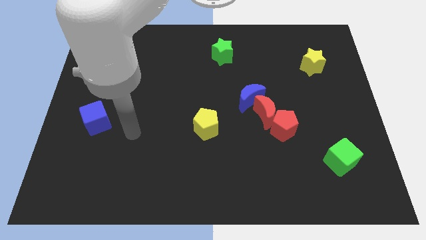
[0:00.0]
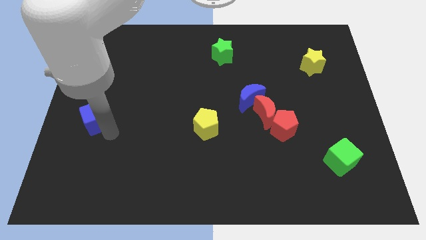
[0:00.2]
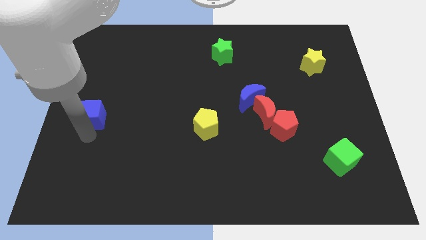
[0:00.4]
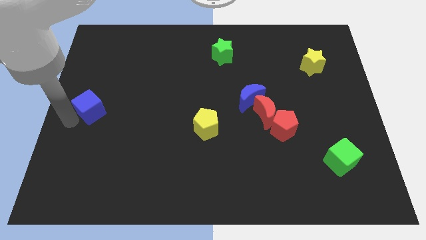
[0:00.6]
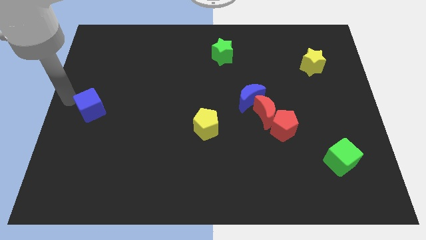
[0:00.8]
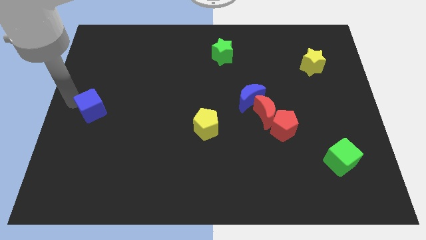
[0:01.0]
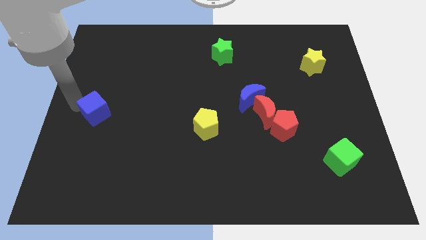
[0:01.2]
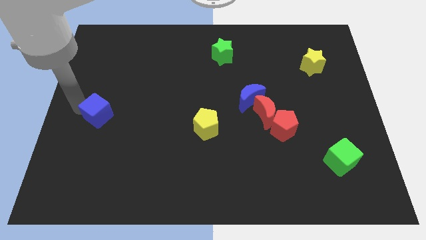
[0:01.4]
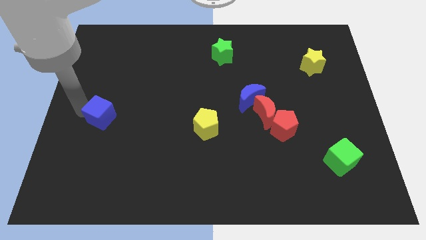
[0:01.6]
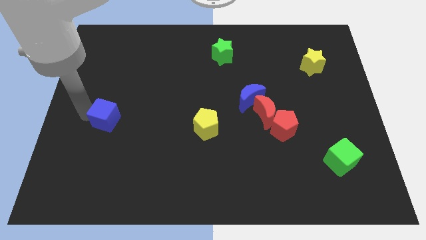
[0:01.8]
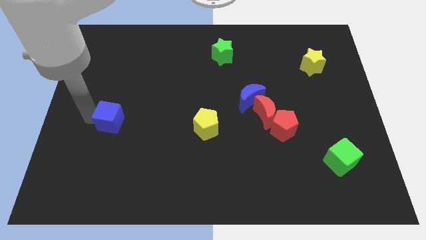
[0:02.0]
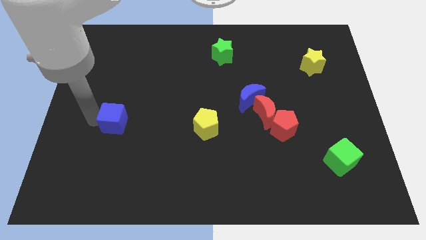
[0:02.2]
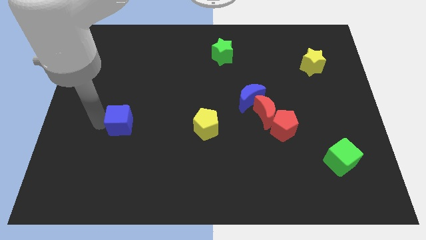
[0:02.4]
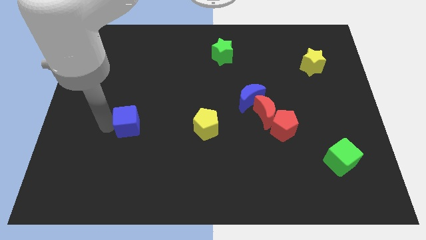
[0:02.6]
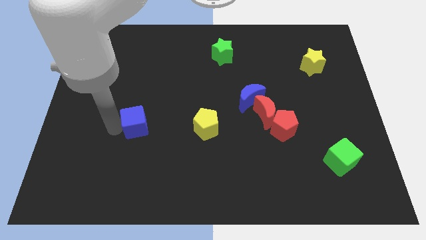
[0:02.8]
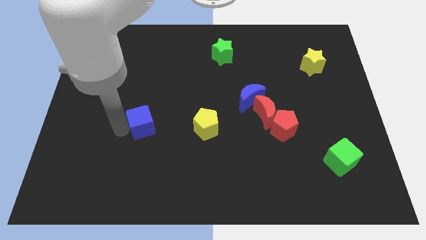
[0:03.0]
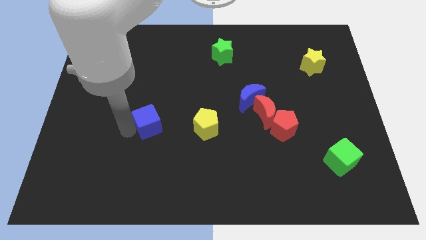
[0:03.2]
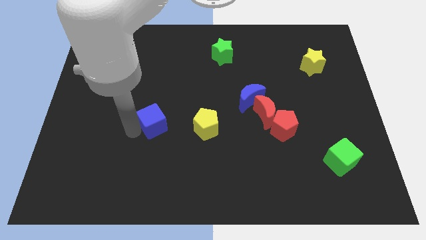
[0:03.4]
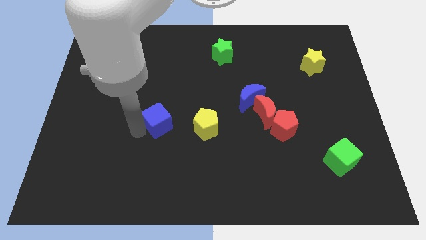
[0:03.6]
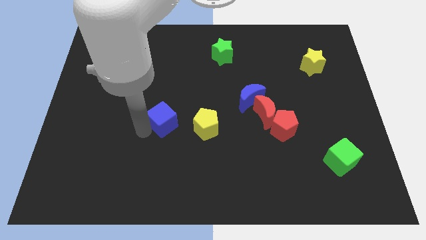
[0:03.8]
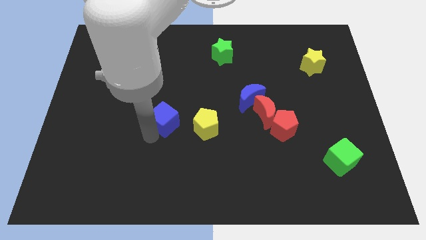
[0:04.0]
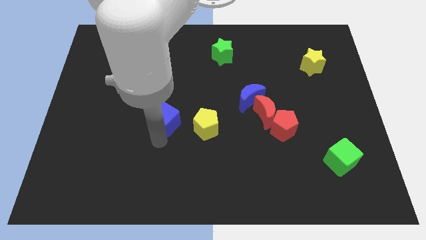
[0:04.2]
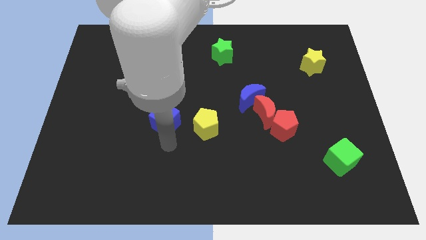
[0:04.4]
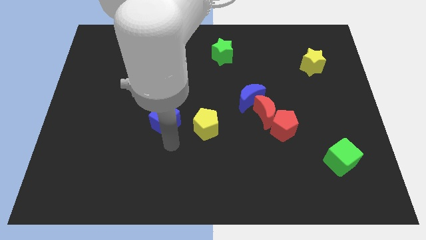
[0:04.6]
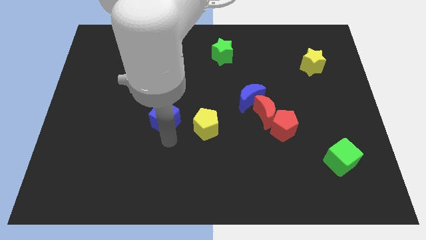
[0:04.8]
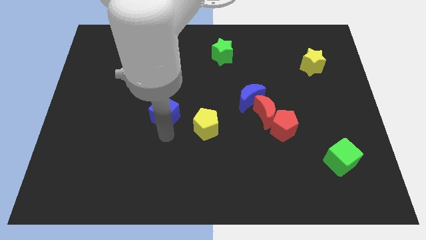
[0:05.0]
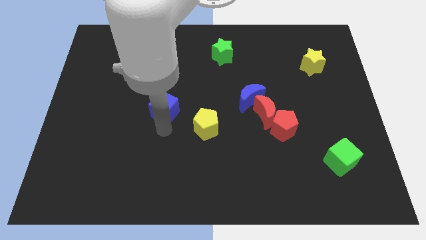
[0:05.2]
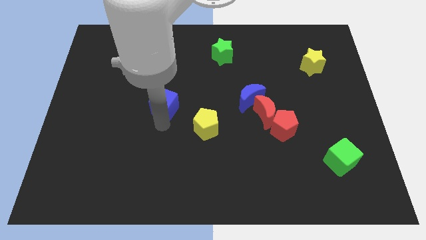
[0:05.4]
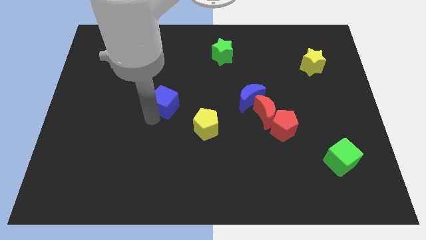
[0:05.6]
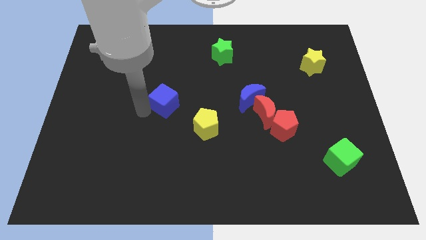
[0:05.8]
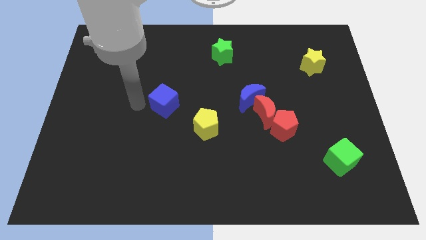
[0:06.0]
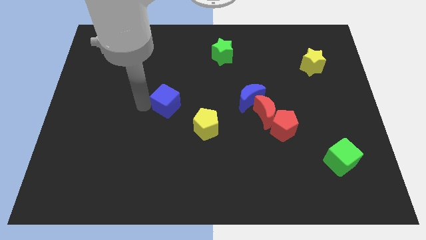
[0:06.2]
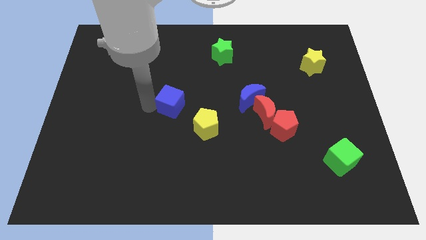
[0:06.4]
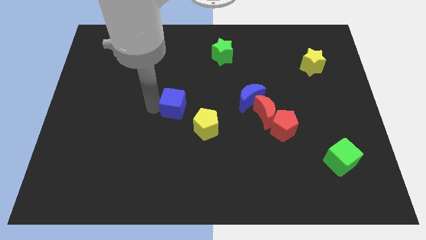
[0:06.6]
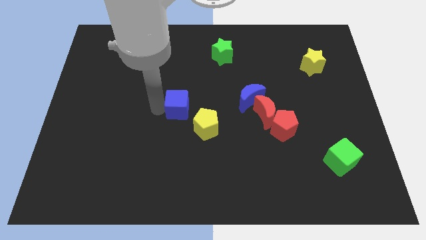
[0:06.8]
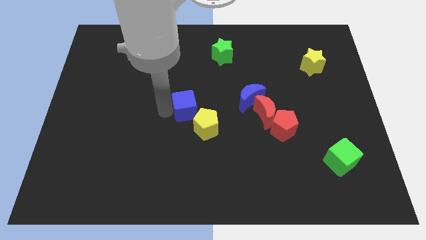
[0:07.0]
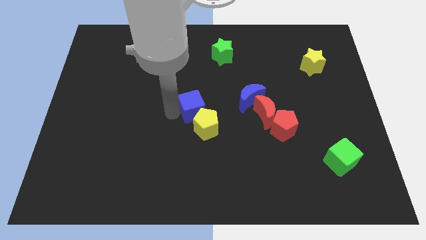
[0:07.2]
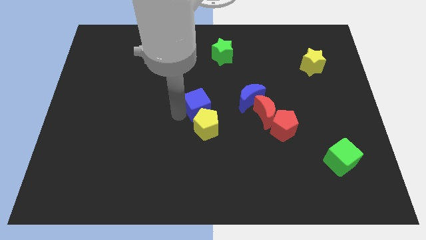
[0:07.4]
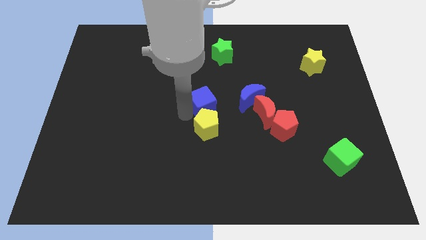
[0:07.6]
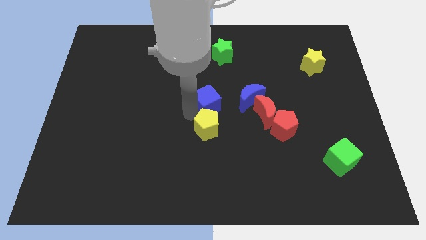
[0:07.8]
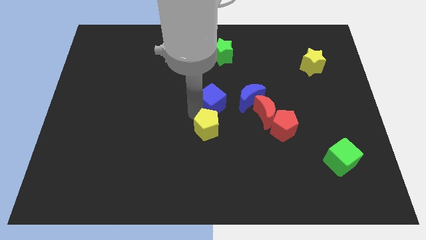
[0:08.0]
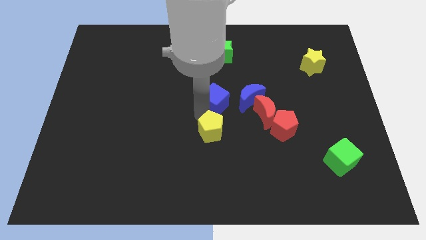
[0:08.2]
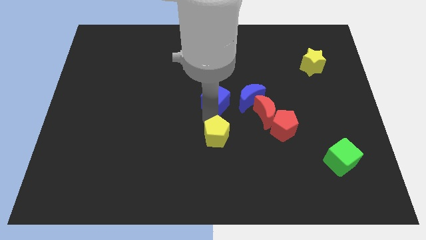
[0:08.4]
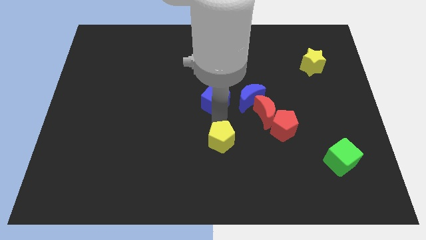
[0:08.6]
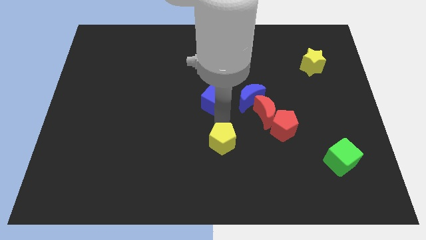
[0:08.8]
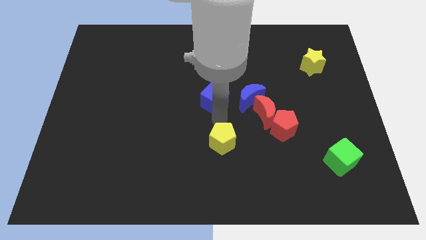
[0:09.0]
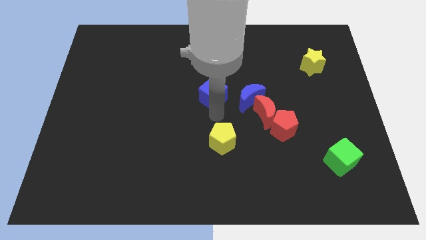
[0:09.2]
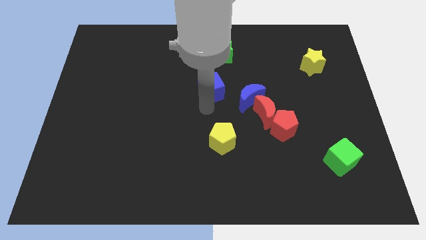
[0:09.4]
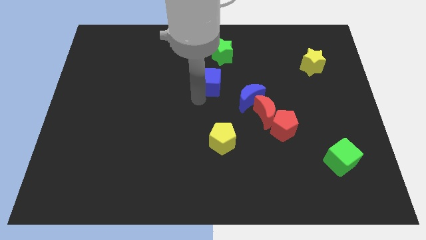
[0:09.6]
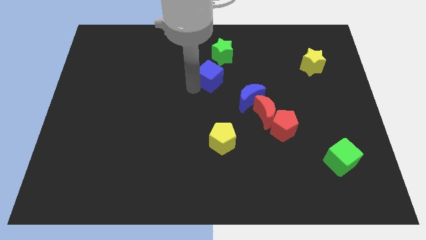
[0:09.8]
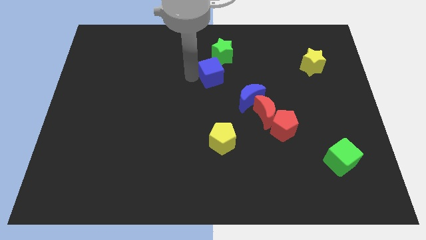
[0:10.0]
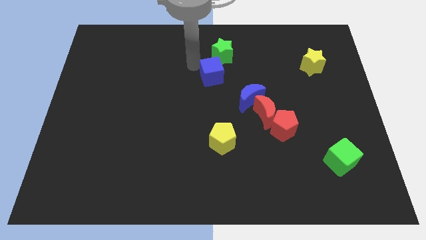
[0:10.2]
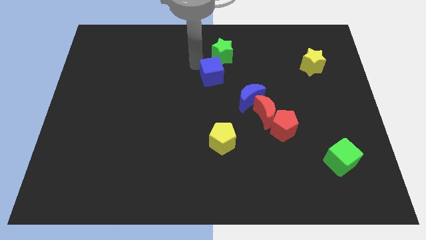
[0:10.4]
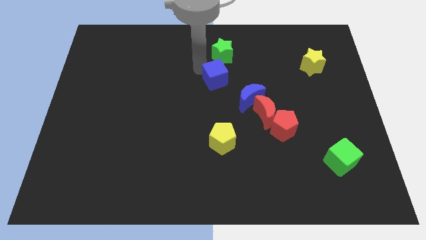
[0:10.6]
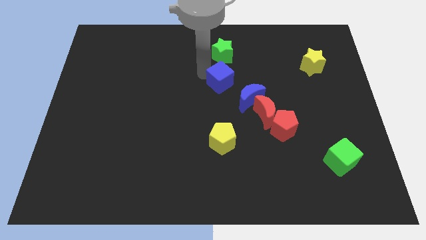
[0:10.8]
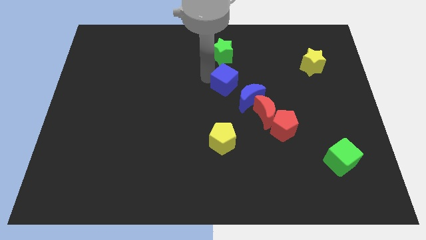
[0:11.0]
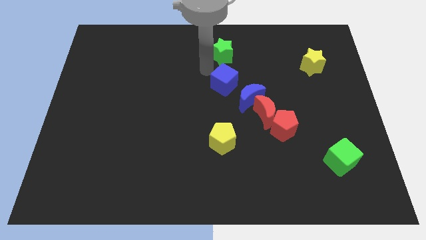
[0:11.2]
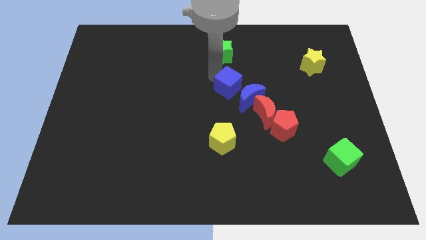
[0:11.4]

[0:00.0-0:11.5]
push the blue cube diagonally up and to the left of the red moon
